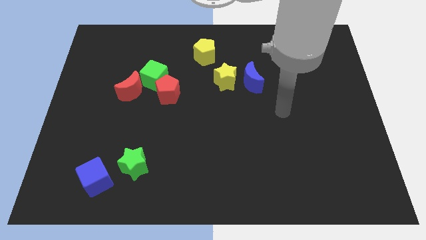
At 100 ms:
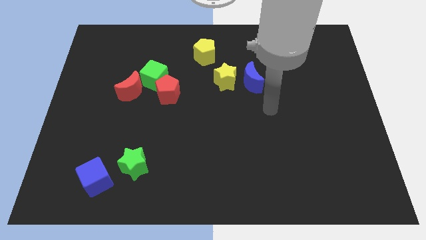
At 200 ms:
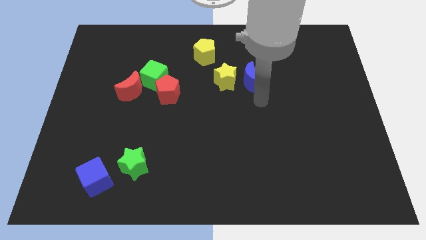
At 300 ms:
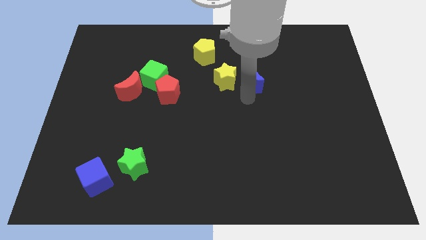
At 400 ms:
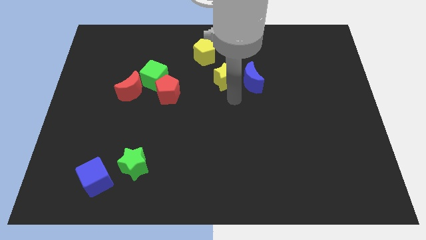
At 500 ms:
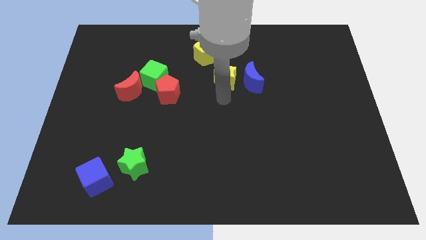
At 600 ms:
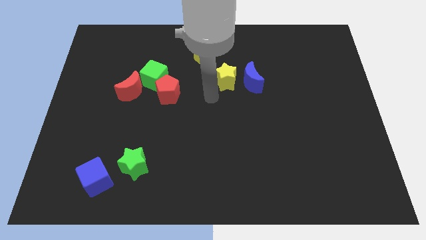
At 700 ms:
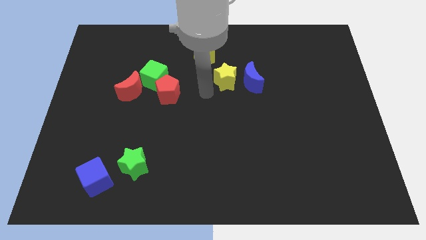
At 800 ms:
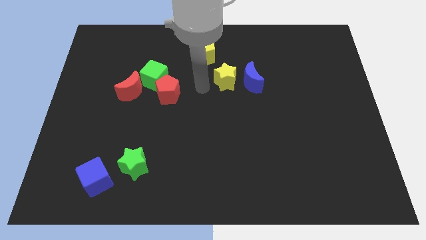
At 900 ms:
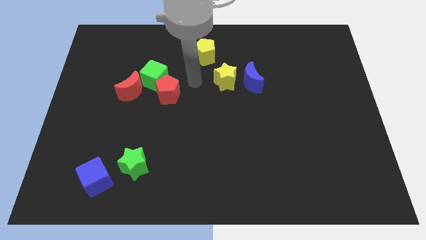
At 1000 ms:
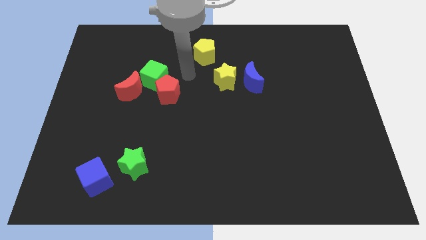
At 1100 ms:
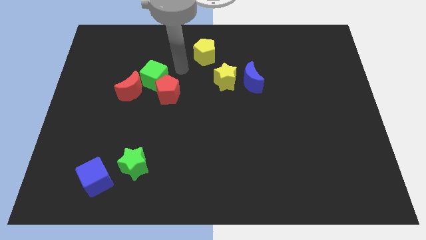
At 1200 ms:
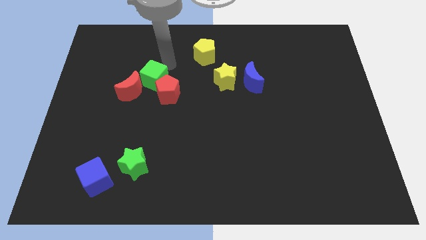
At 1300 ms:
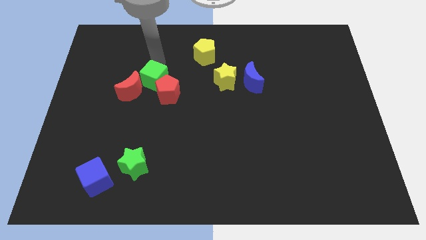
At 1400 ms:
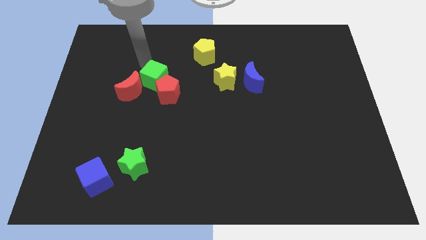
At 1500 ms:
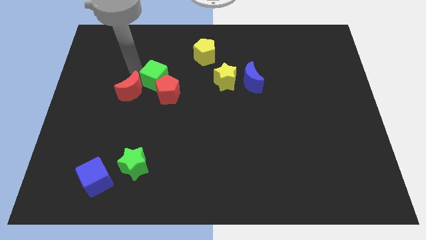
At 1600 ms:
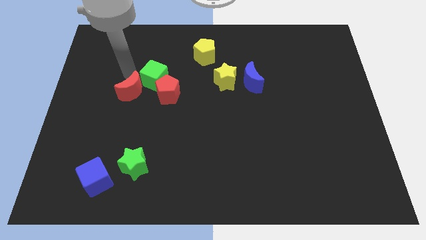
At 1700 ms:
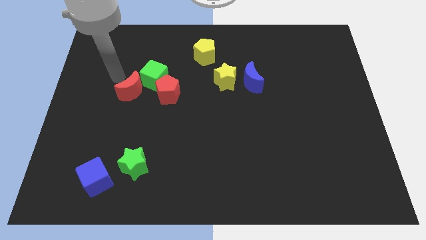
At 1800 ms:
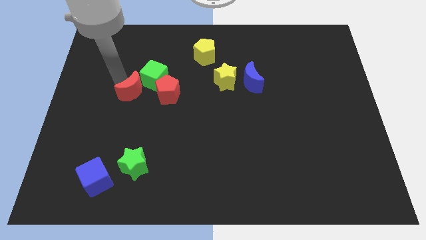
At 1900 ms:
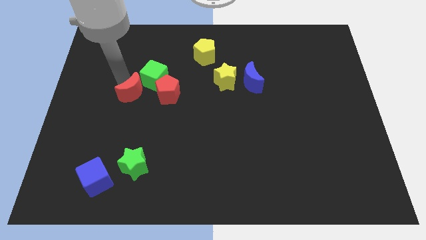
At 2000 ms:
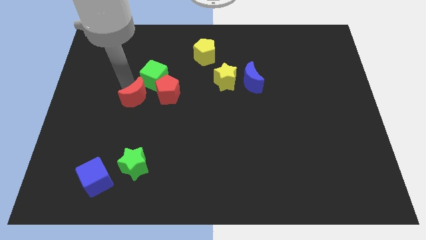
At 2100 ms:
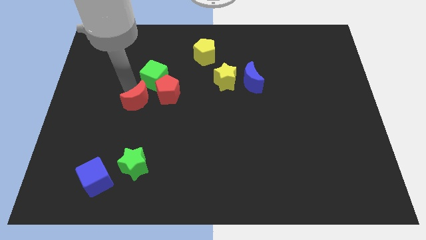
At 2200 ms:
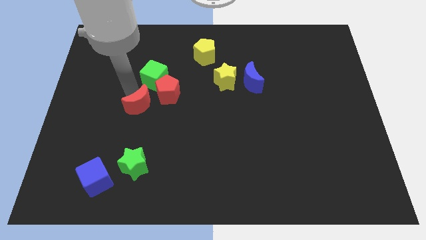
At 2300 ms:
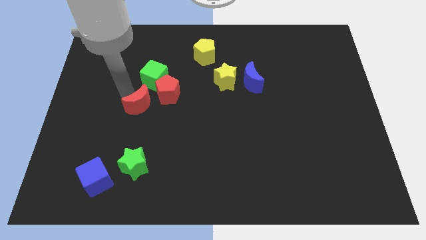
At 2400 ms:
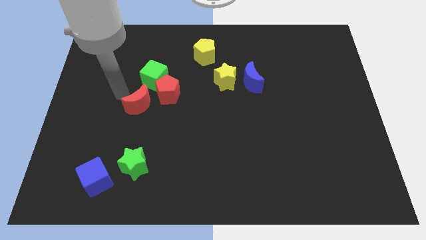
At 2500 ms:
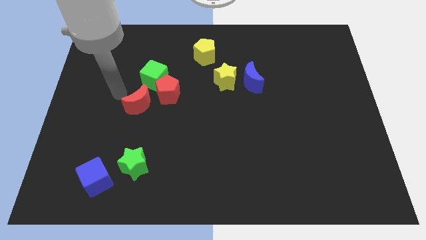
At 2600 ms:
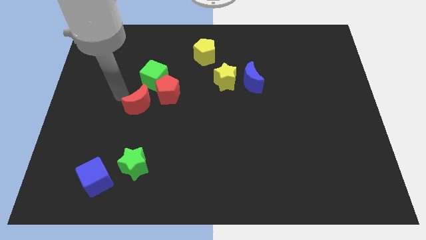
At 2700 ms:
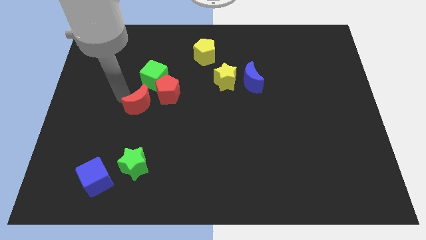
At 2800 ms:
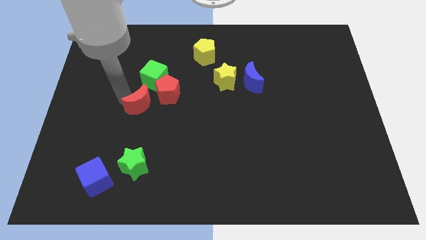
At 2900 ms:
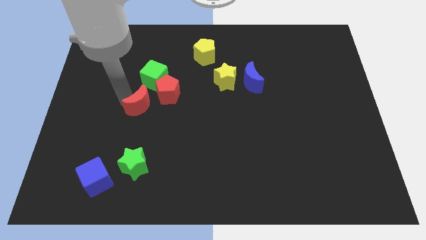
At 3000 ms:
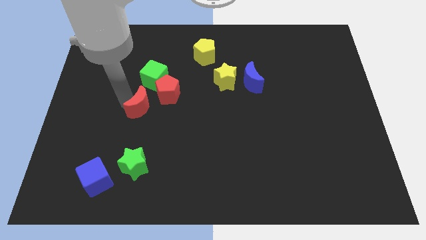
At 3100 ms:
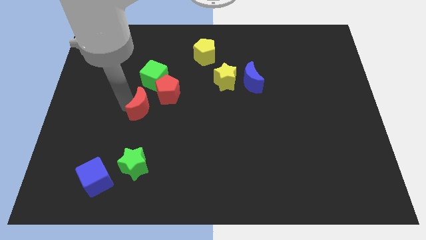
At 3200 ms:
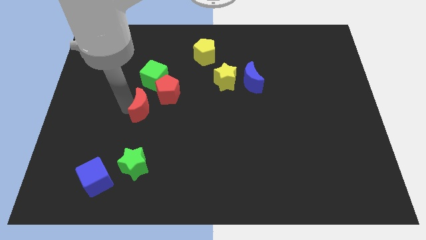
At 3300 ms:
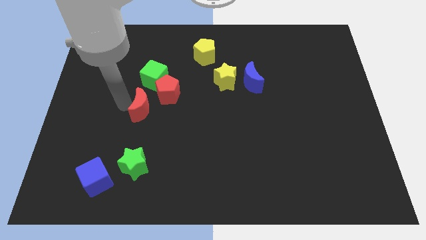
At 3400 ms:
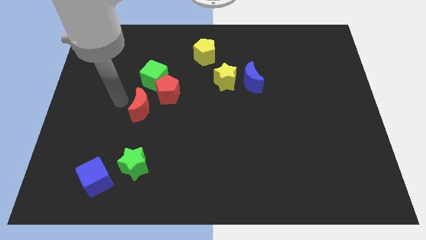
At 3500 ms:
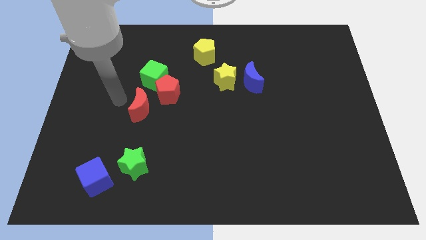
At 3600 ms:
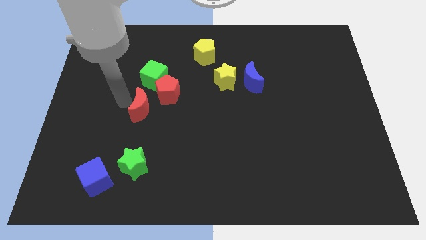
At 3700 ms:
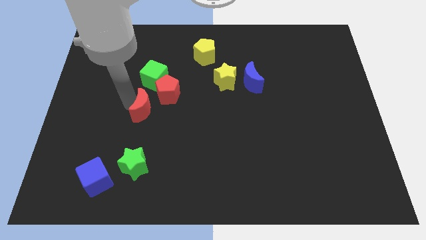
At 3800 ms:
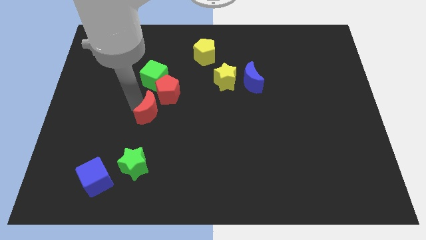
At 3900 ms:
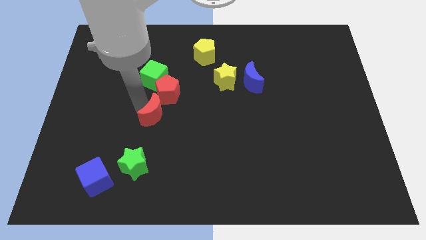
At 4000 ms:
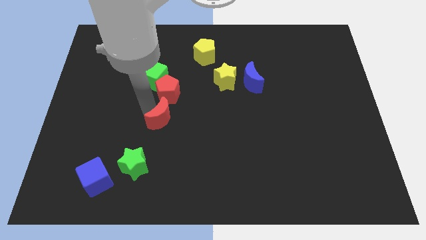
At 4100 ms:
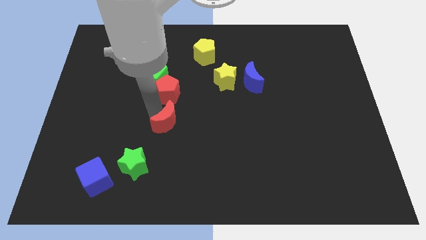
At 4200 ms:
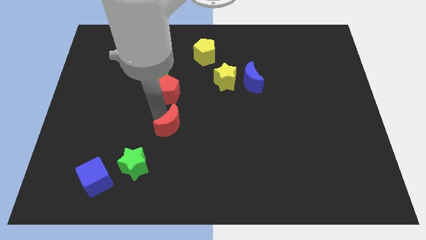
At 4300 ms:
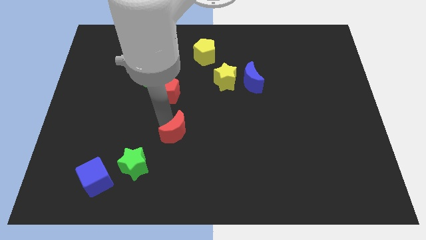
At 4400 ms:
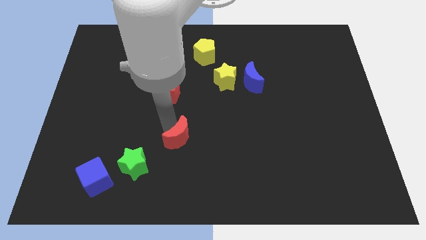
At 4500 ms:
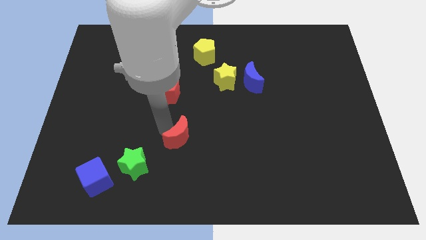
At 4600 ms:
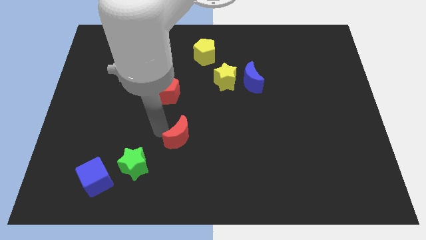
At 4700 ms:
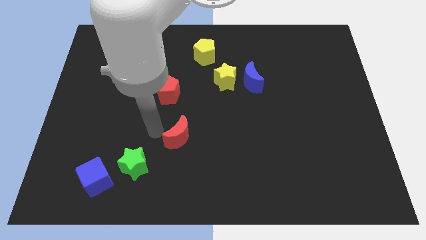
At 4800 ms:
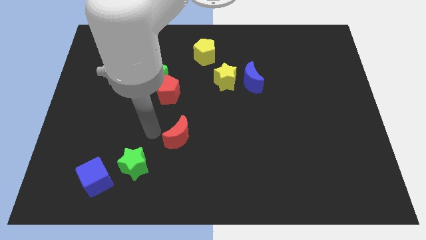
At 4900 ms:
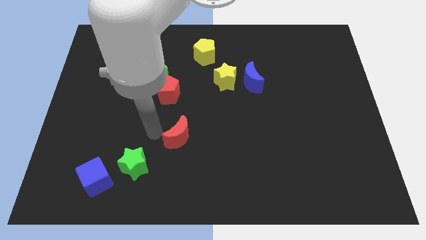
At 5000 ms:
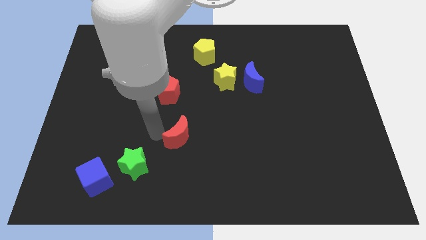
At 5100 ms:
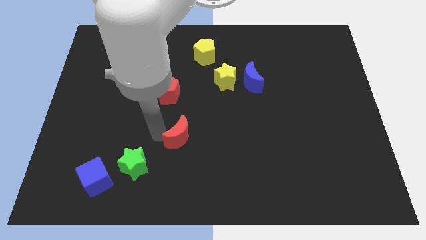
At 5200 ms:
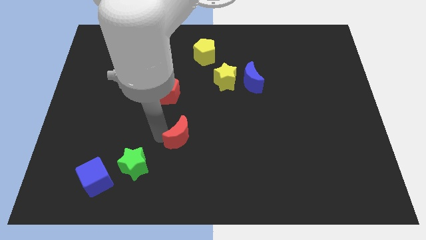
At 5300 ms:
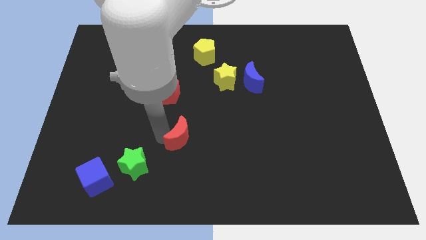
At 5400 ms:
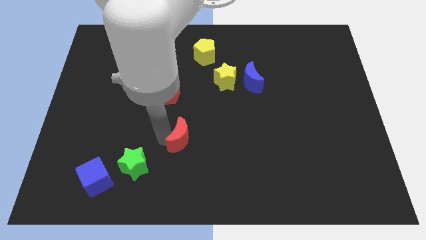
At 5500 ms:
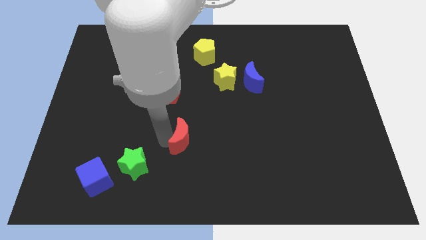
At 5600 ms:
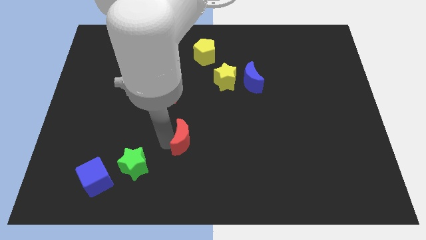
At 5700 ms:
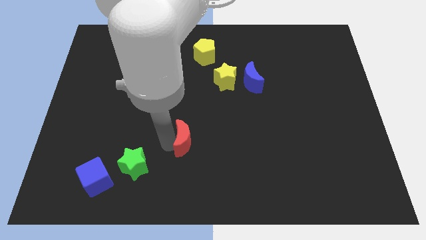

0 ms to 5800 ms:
push the red moon downwards and to the right

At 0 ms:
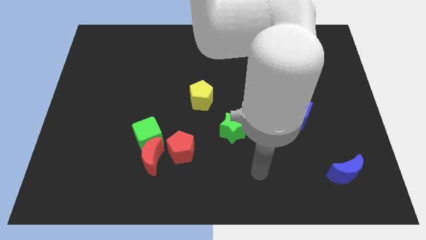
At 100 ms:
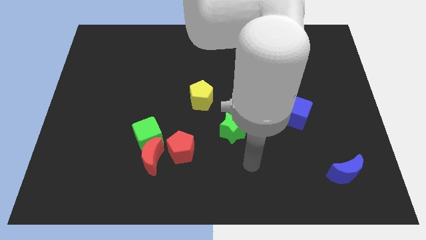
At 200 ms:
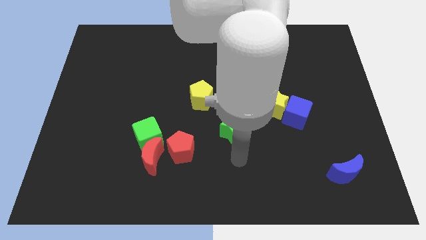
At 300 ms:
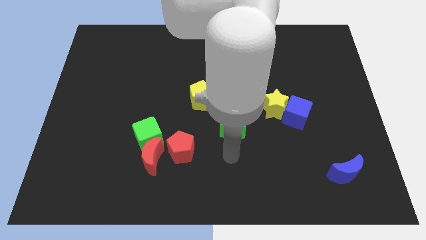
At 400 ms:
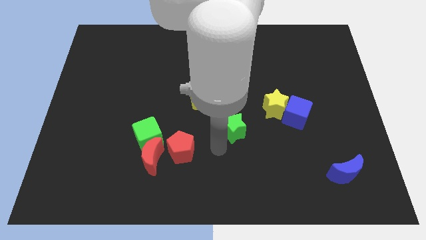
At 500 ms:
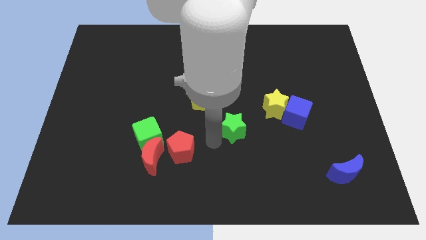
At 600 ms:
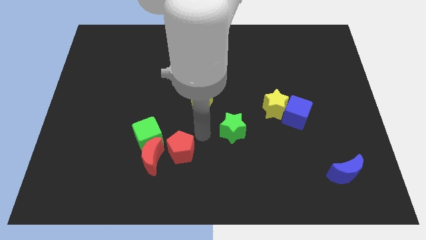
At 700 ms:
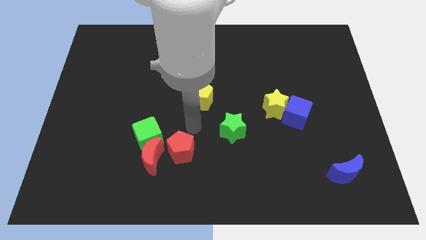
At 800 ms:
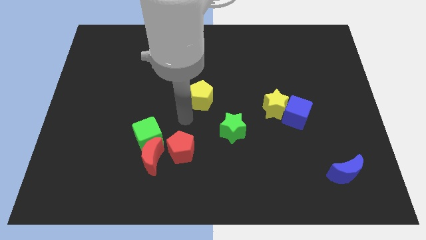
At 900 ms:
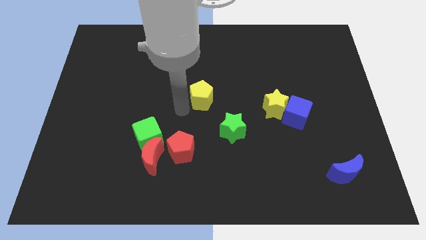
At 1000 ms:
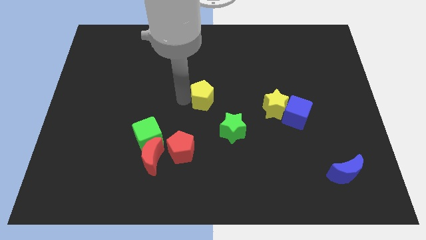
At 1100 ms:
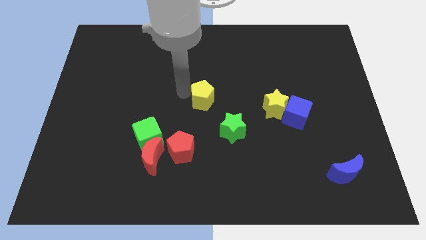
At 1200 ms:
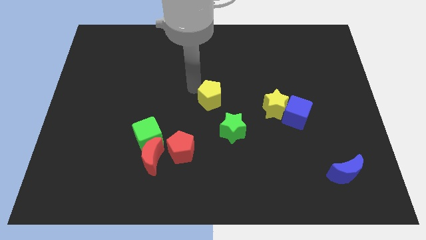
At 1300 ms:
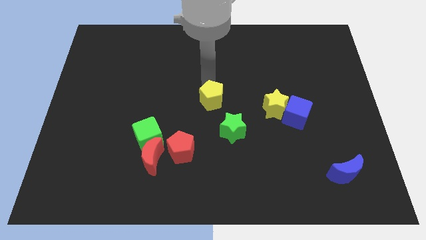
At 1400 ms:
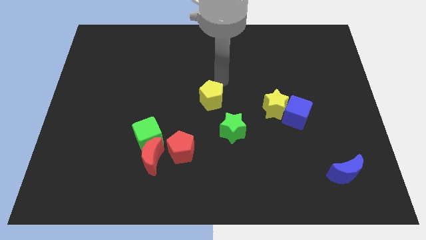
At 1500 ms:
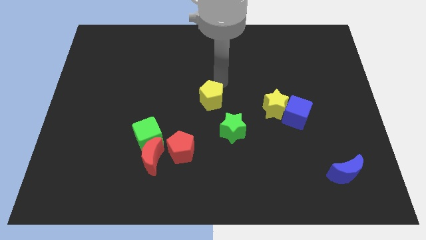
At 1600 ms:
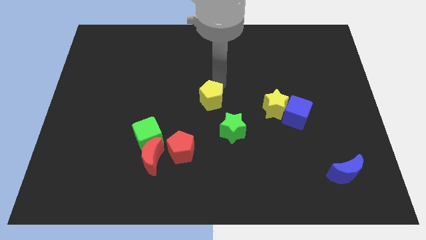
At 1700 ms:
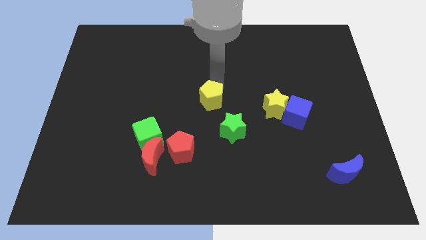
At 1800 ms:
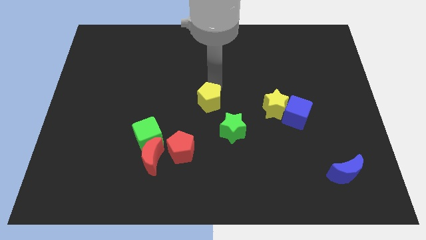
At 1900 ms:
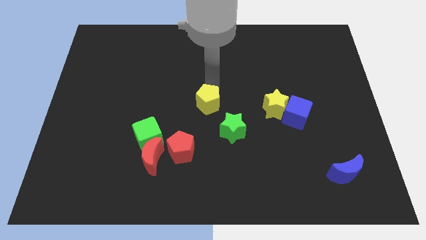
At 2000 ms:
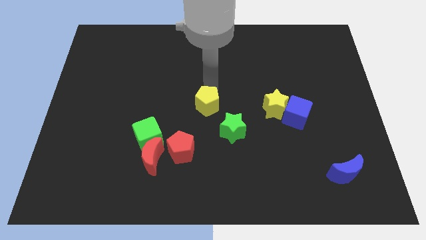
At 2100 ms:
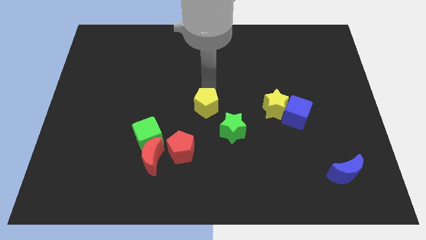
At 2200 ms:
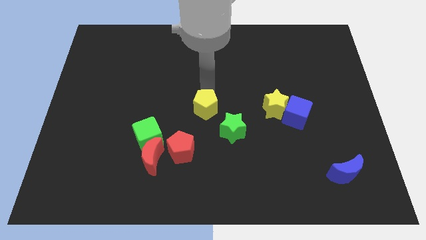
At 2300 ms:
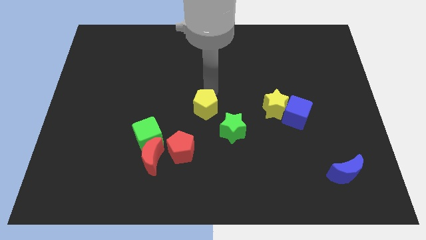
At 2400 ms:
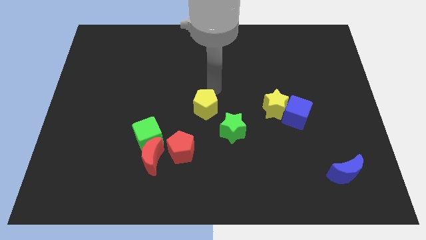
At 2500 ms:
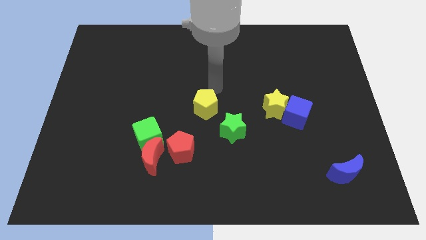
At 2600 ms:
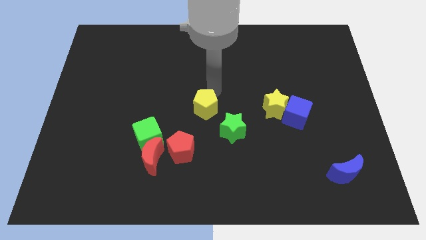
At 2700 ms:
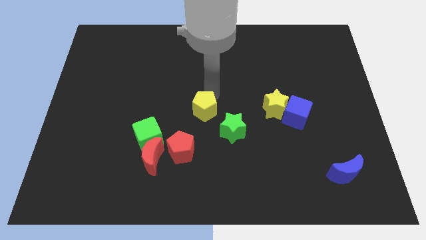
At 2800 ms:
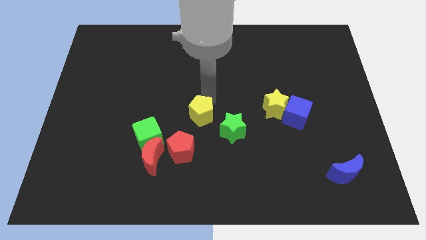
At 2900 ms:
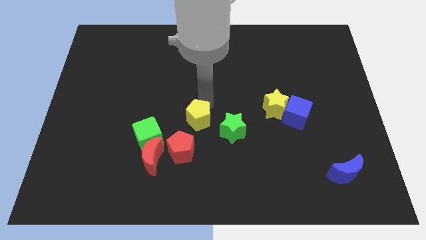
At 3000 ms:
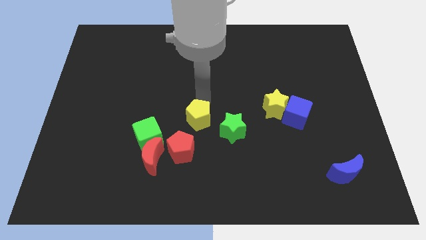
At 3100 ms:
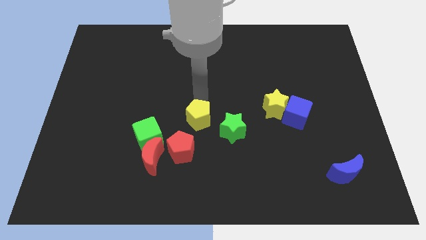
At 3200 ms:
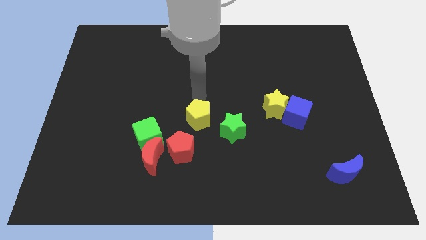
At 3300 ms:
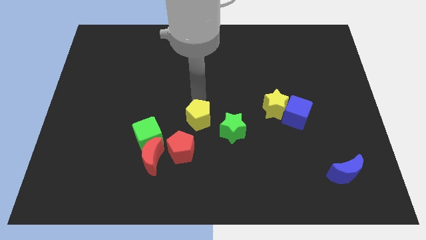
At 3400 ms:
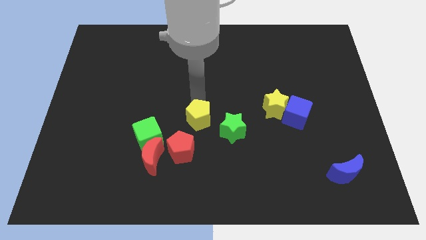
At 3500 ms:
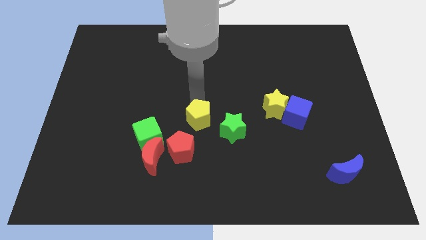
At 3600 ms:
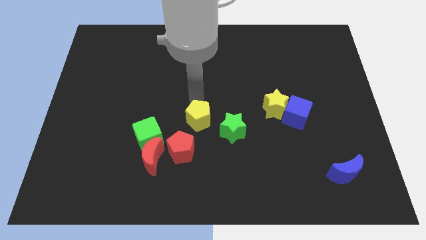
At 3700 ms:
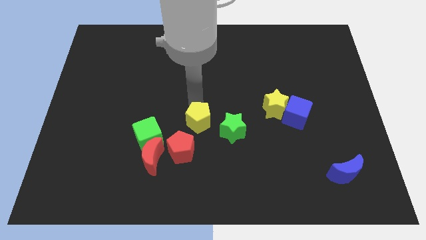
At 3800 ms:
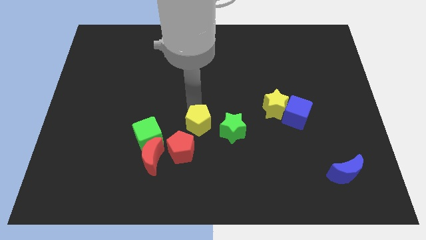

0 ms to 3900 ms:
push the yellow pentagon down slightly
